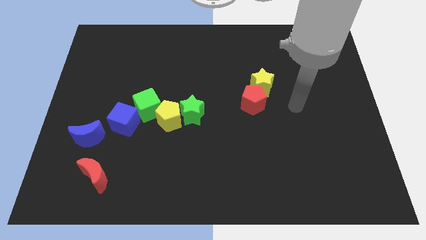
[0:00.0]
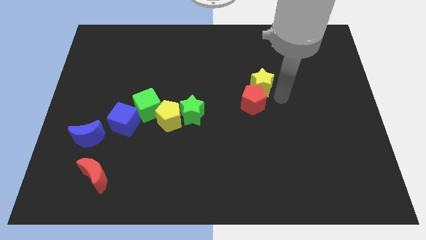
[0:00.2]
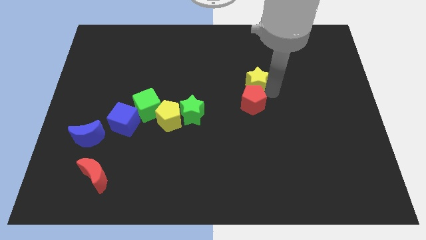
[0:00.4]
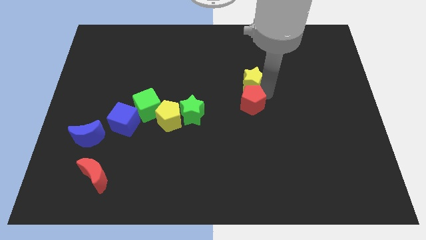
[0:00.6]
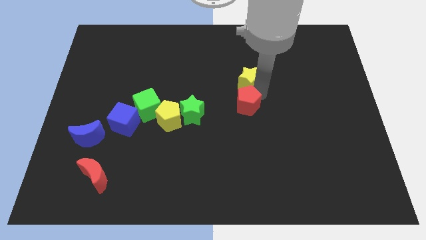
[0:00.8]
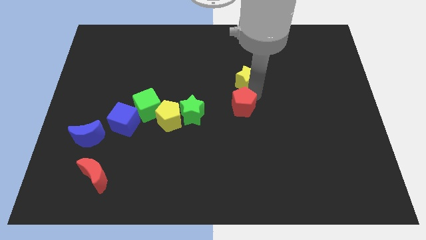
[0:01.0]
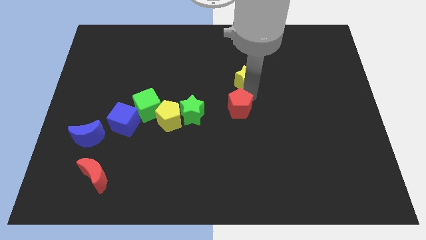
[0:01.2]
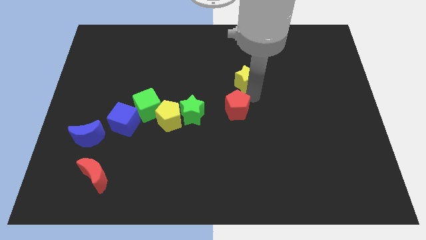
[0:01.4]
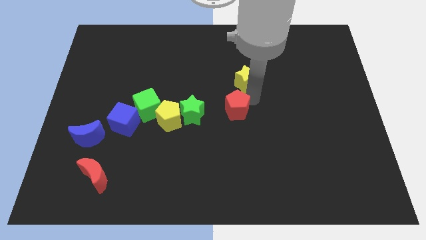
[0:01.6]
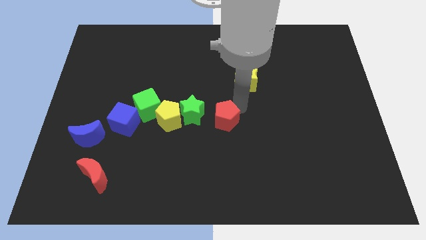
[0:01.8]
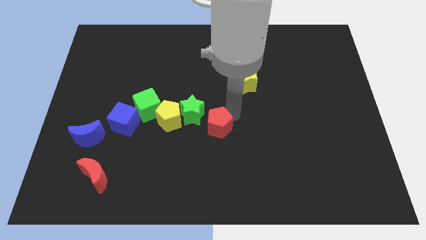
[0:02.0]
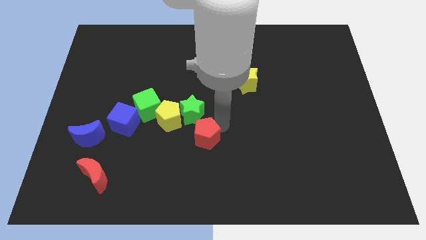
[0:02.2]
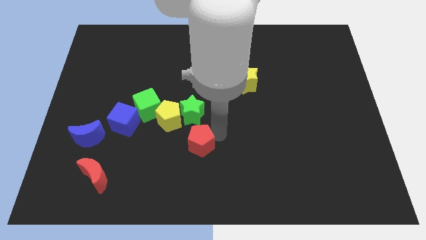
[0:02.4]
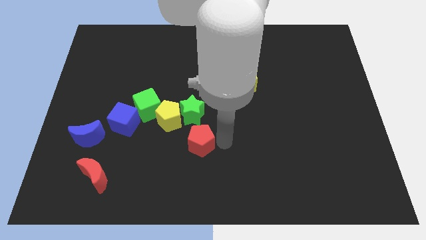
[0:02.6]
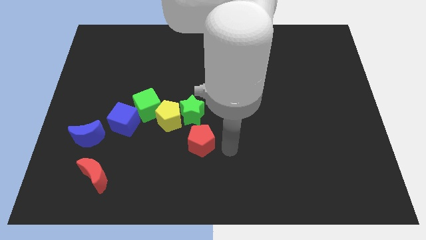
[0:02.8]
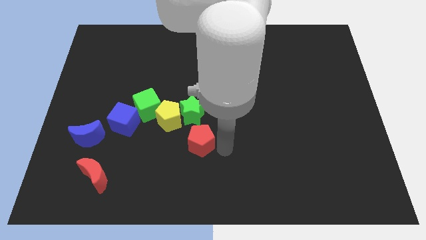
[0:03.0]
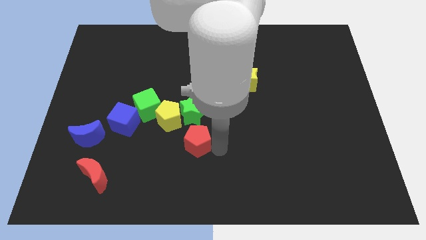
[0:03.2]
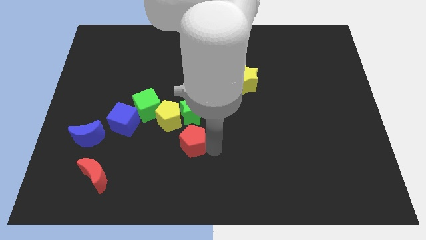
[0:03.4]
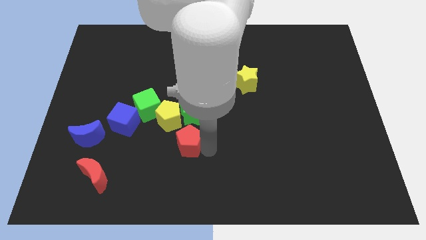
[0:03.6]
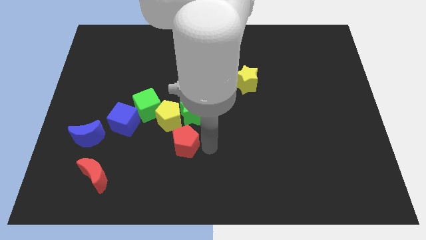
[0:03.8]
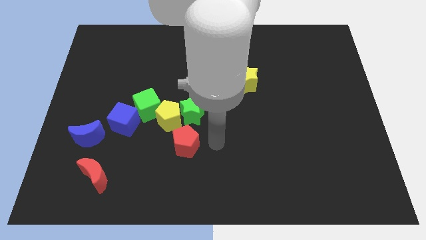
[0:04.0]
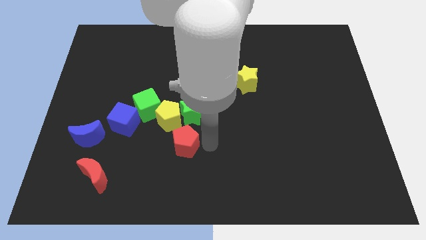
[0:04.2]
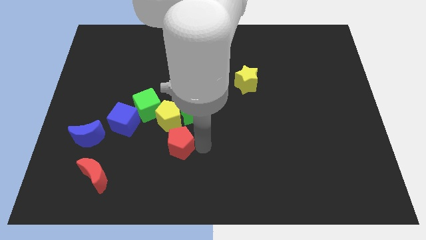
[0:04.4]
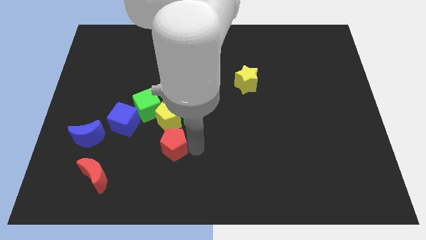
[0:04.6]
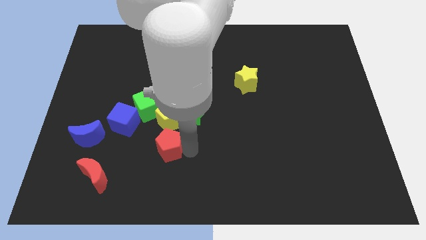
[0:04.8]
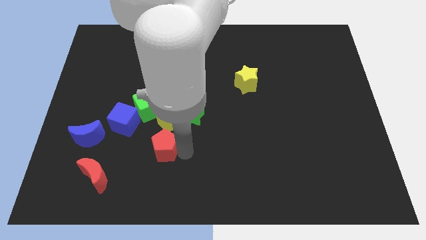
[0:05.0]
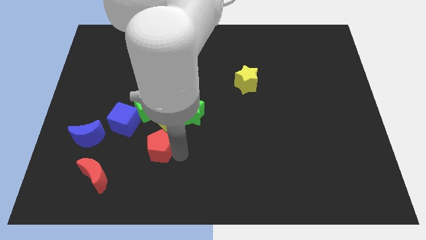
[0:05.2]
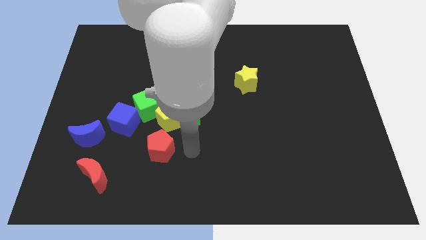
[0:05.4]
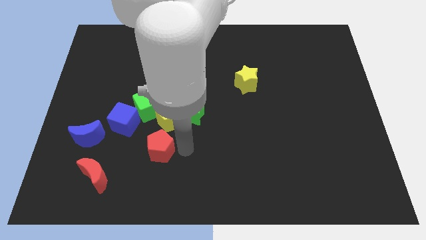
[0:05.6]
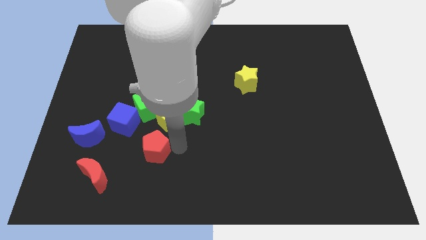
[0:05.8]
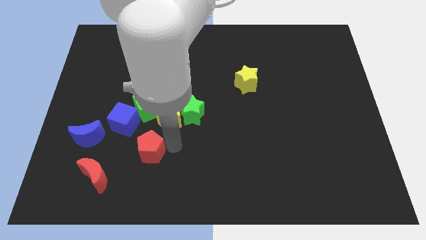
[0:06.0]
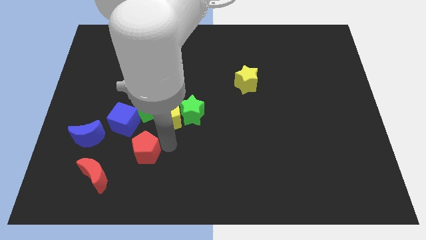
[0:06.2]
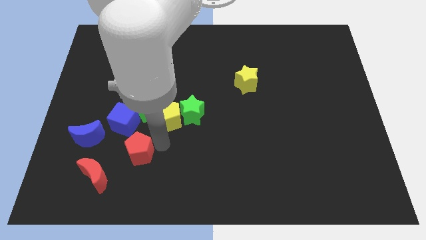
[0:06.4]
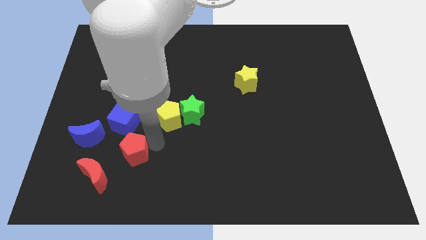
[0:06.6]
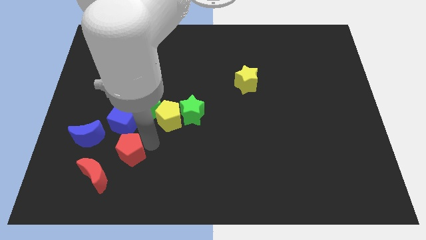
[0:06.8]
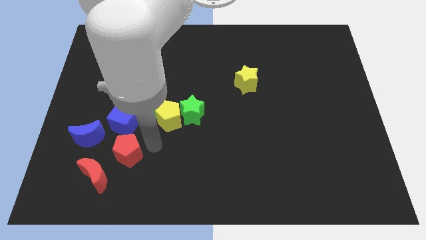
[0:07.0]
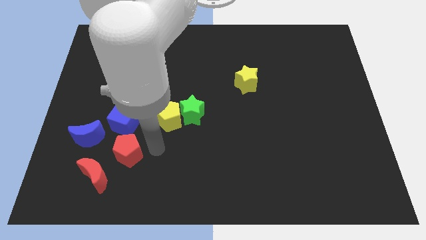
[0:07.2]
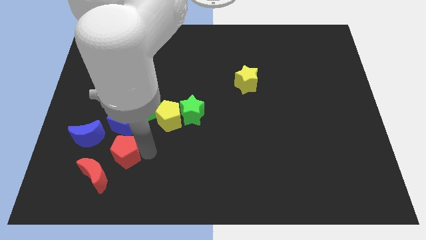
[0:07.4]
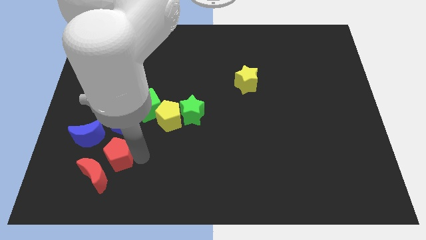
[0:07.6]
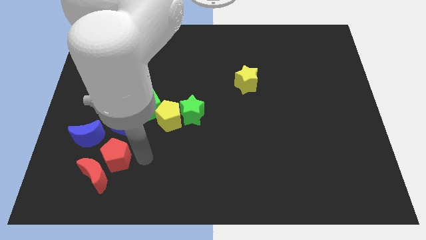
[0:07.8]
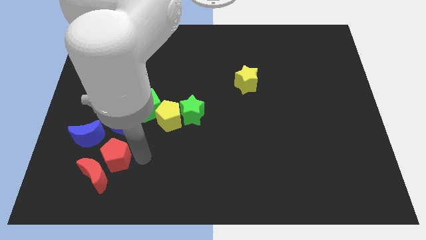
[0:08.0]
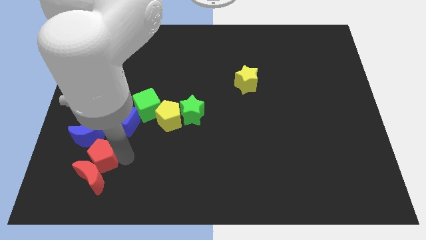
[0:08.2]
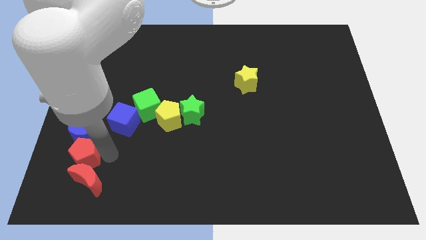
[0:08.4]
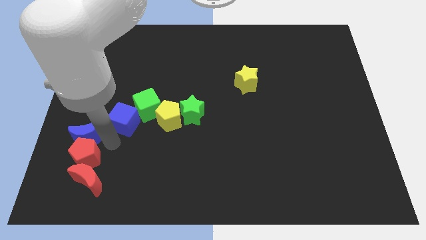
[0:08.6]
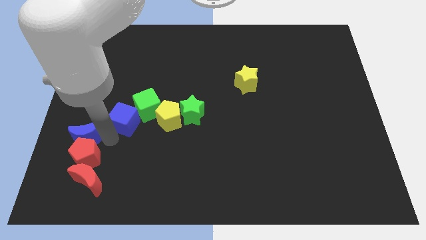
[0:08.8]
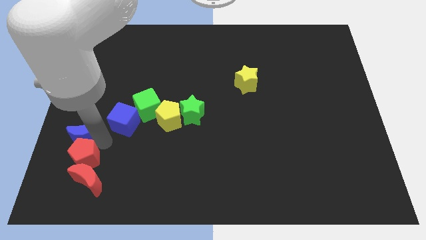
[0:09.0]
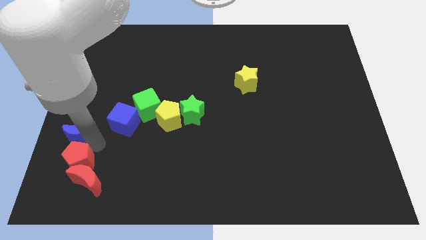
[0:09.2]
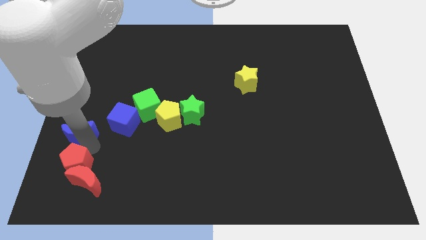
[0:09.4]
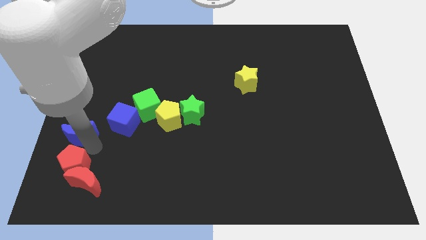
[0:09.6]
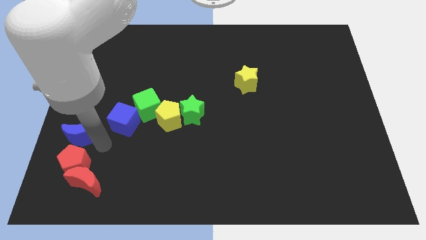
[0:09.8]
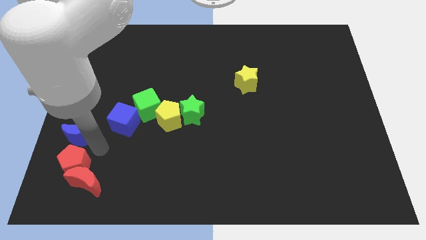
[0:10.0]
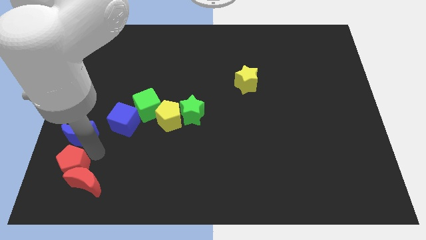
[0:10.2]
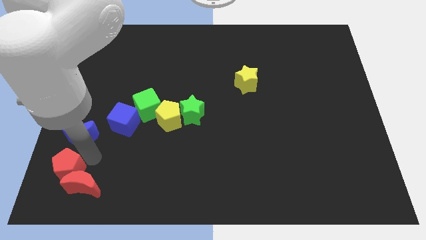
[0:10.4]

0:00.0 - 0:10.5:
slide the red pentagon to the bottom left of the board
